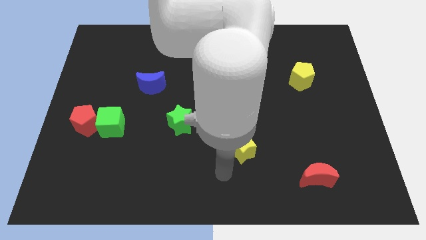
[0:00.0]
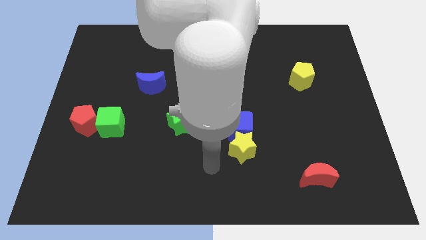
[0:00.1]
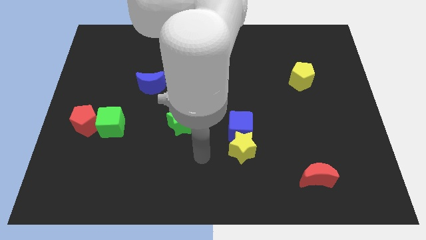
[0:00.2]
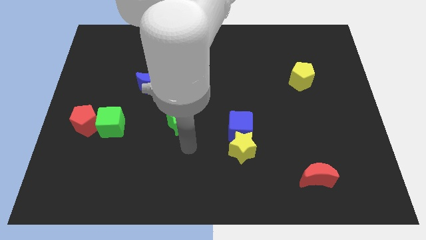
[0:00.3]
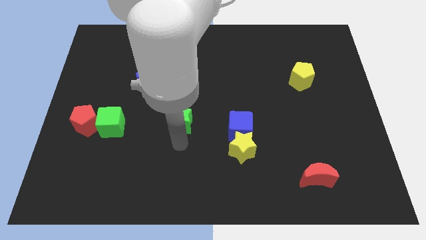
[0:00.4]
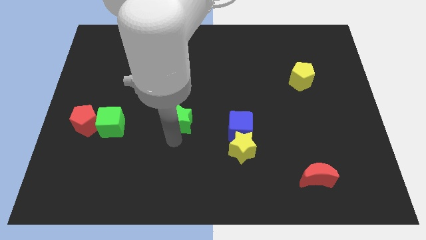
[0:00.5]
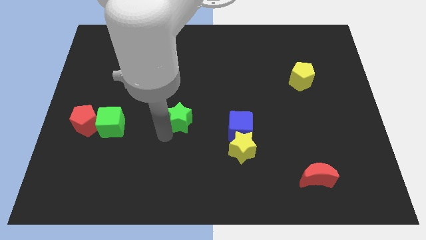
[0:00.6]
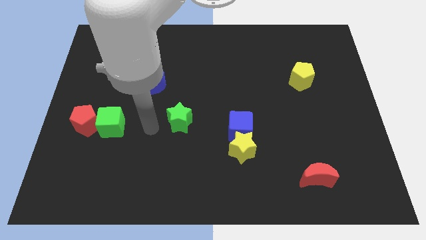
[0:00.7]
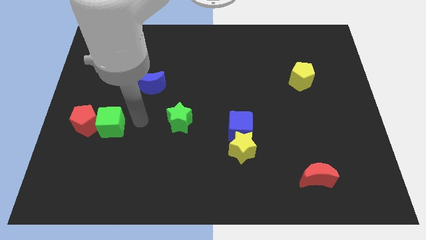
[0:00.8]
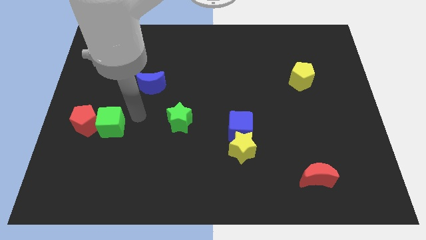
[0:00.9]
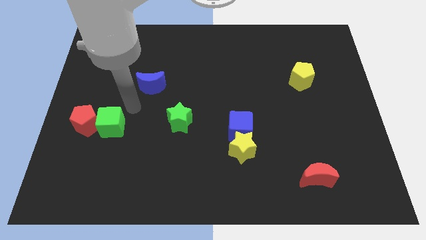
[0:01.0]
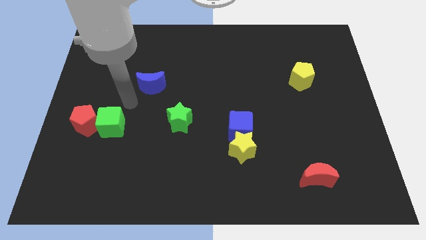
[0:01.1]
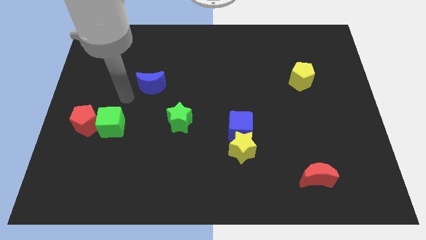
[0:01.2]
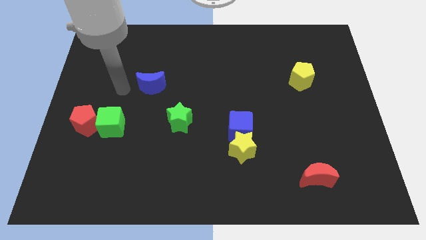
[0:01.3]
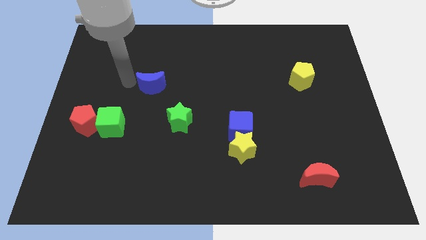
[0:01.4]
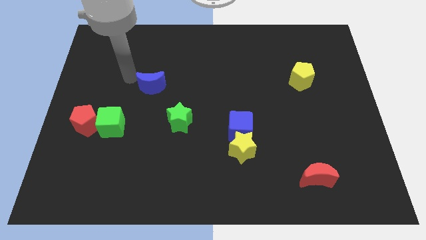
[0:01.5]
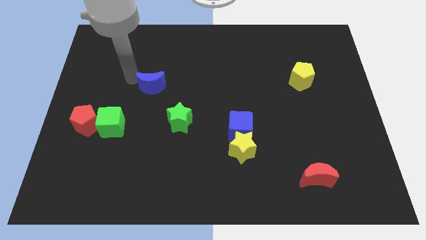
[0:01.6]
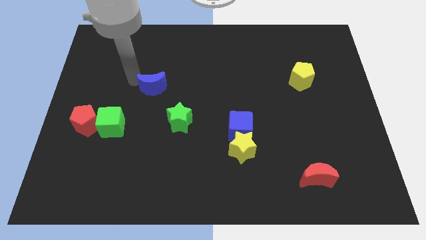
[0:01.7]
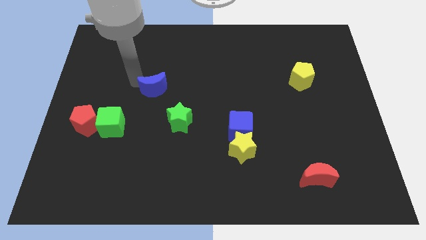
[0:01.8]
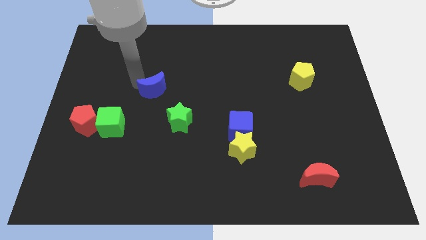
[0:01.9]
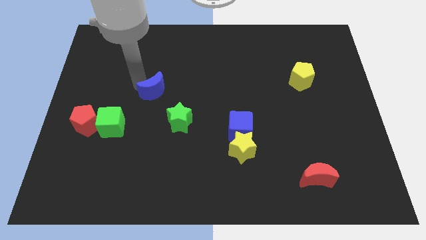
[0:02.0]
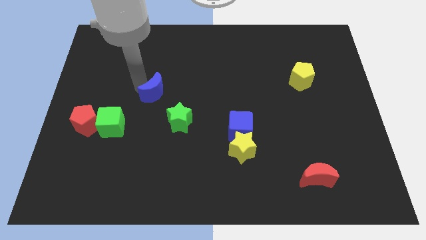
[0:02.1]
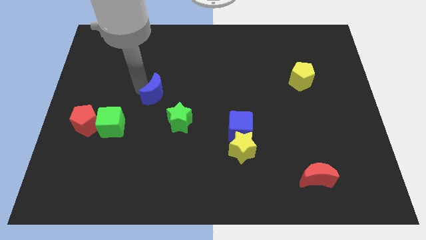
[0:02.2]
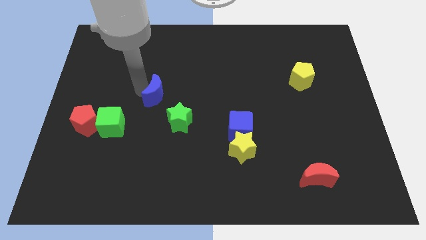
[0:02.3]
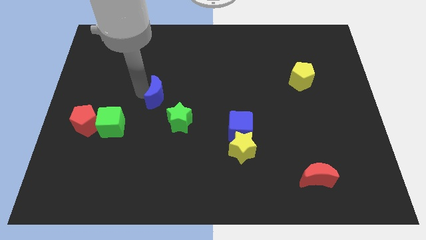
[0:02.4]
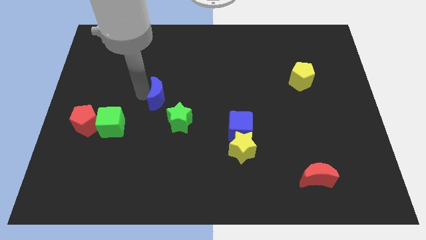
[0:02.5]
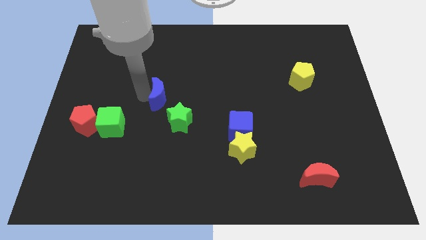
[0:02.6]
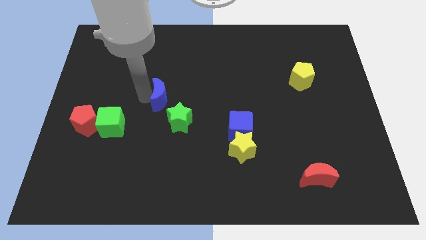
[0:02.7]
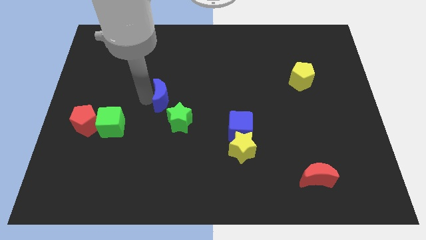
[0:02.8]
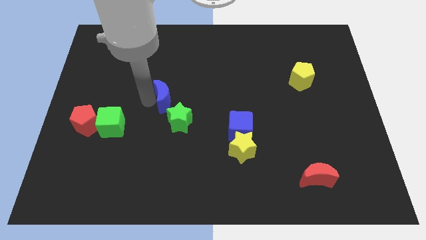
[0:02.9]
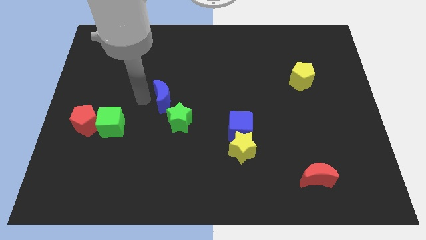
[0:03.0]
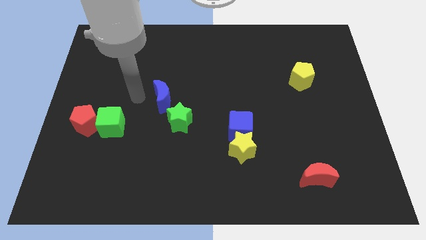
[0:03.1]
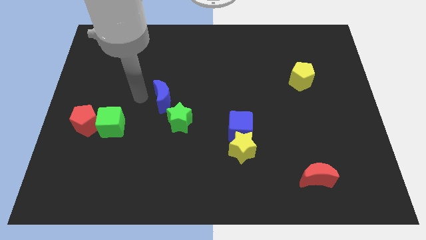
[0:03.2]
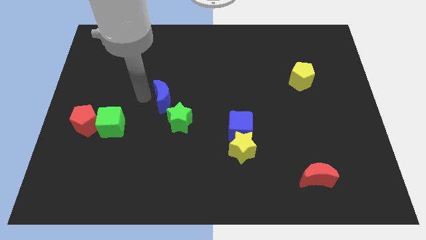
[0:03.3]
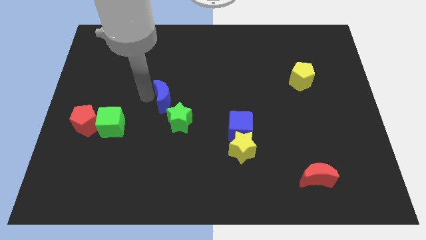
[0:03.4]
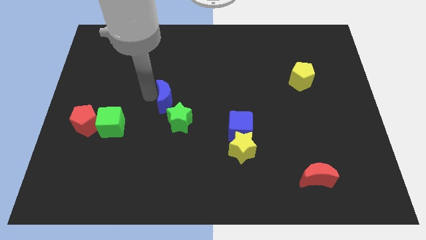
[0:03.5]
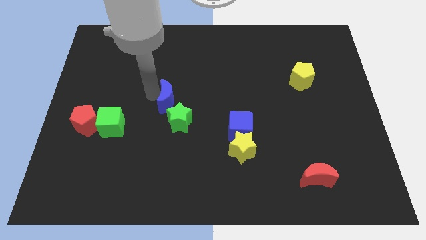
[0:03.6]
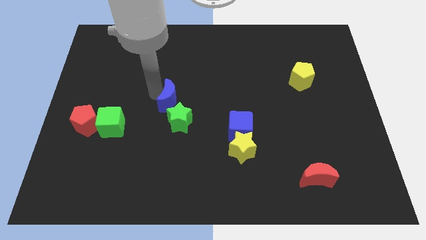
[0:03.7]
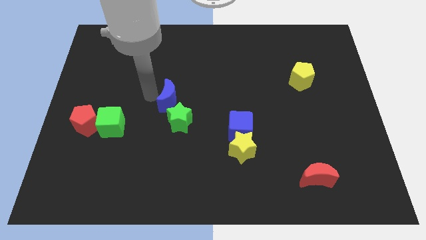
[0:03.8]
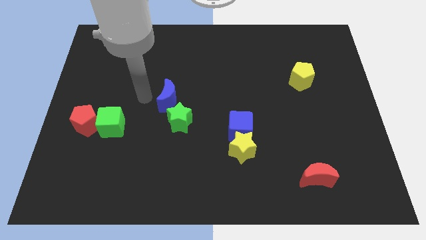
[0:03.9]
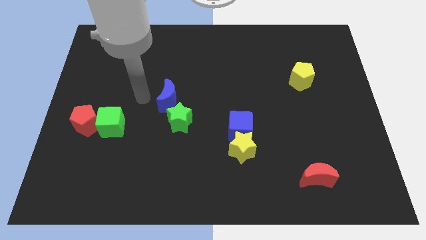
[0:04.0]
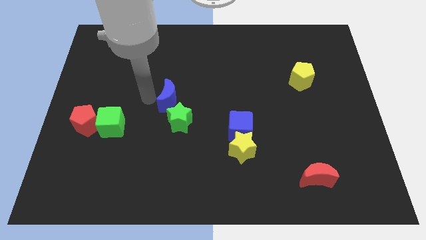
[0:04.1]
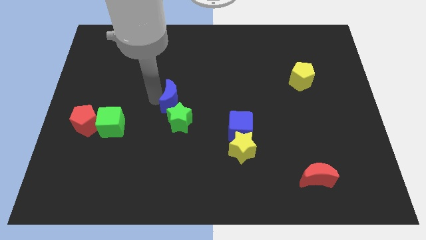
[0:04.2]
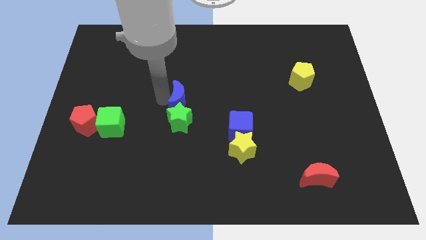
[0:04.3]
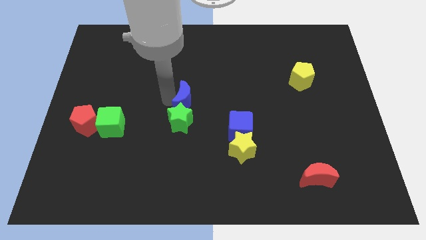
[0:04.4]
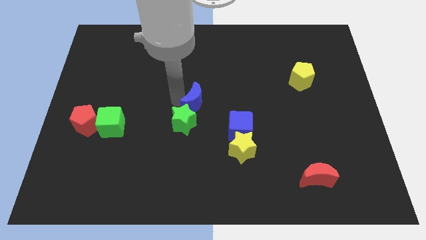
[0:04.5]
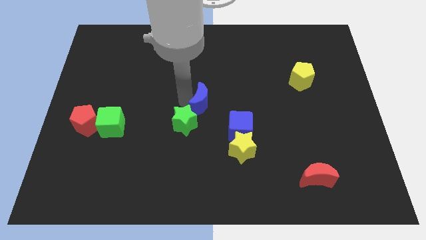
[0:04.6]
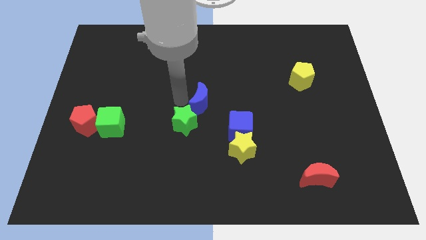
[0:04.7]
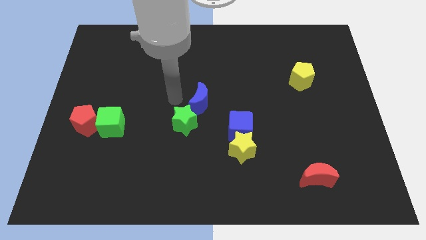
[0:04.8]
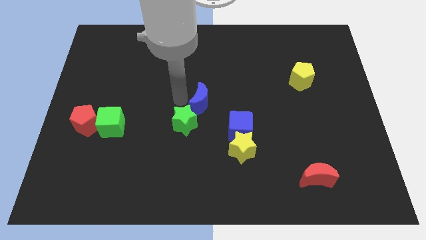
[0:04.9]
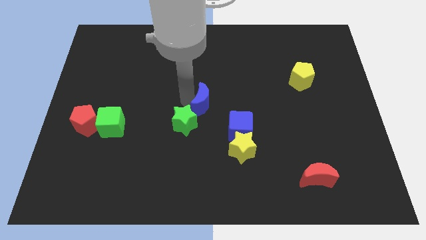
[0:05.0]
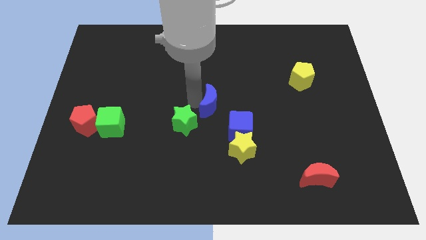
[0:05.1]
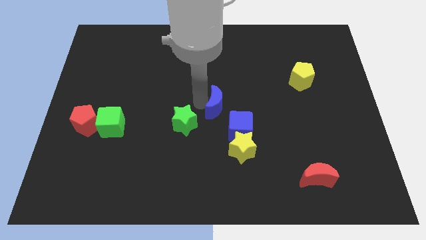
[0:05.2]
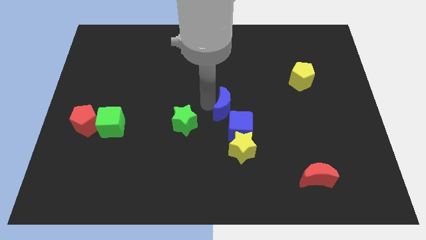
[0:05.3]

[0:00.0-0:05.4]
push the blue moon to the top side of the yellow star

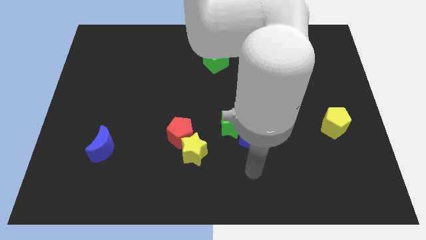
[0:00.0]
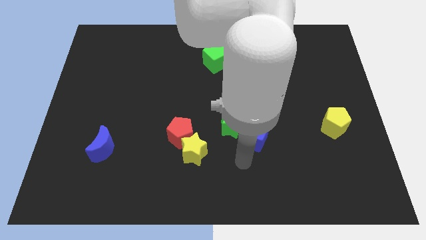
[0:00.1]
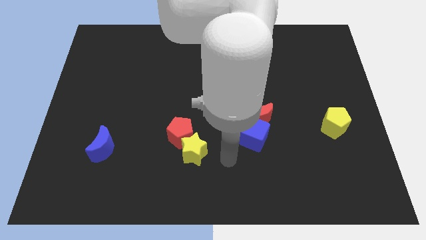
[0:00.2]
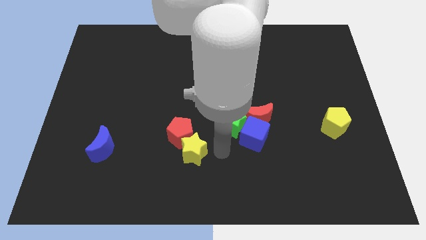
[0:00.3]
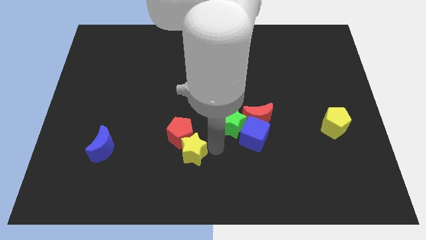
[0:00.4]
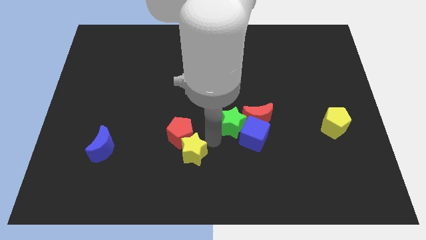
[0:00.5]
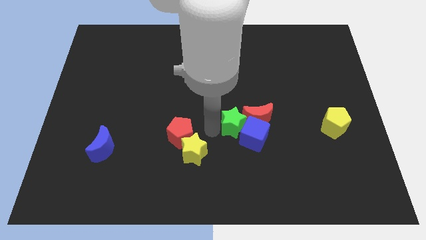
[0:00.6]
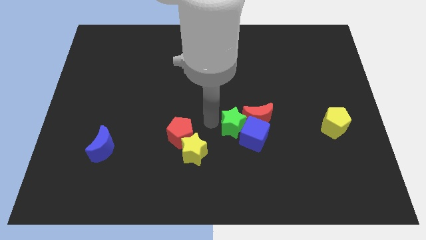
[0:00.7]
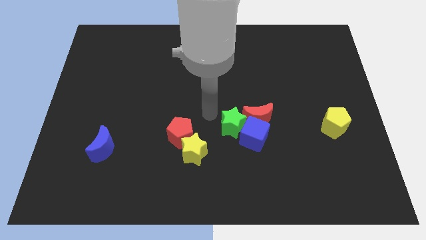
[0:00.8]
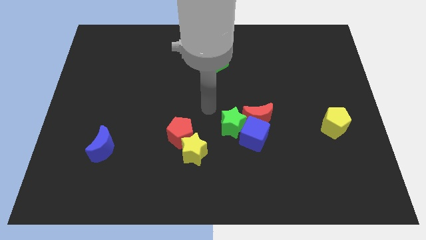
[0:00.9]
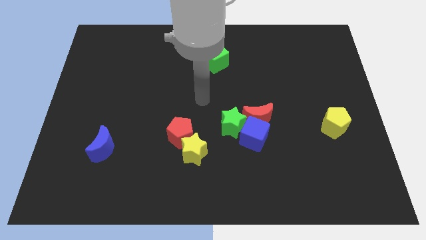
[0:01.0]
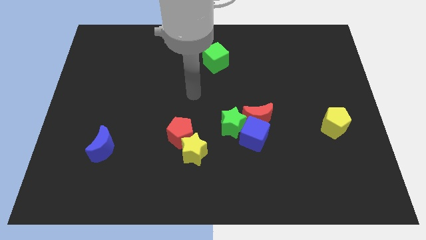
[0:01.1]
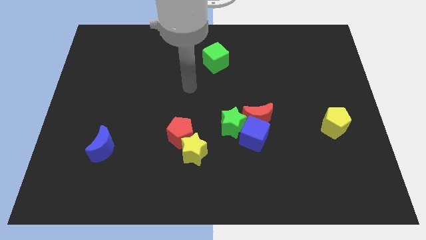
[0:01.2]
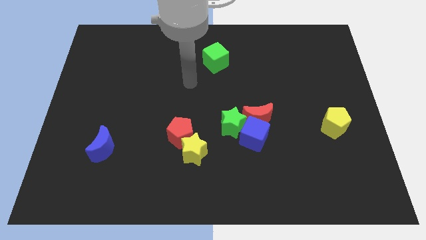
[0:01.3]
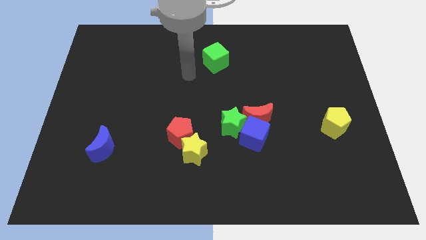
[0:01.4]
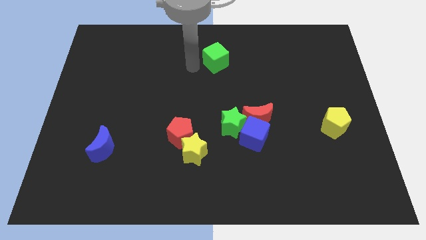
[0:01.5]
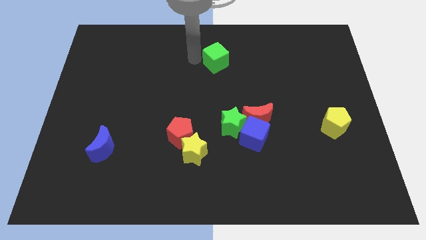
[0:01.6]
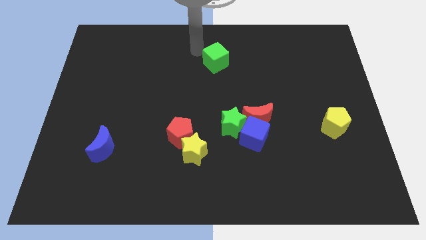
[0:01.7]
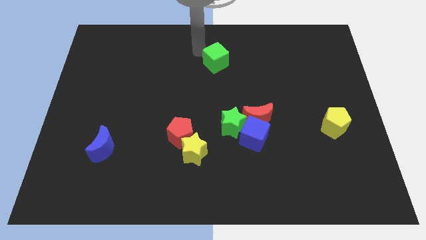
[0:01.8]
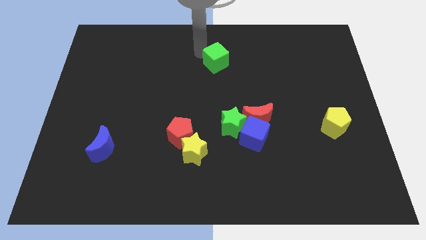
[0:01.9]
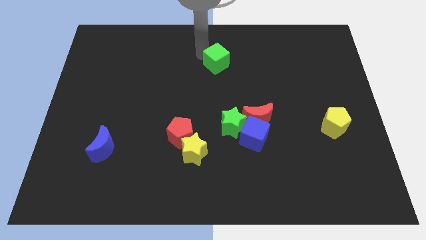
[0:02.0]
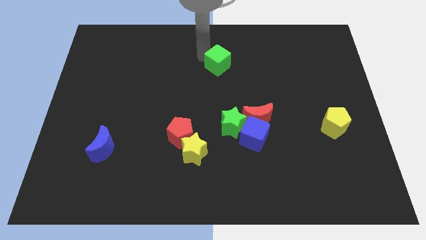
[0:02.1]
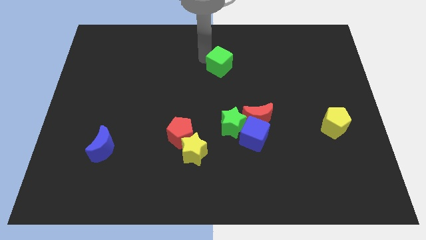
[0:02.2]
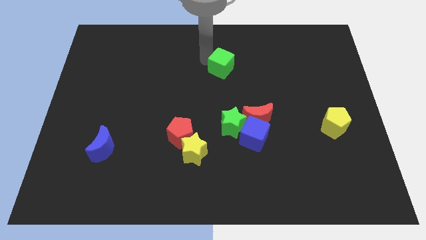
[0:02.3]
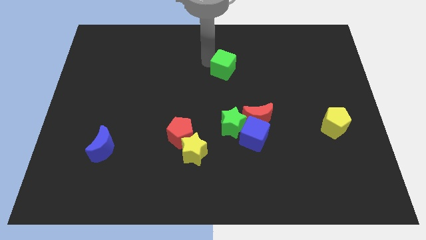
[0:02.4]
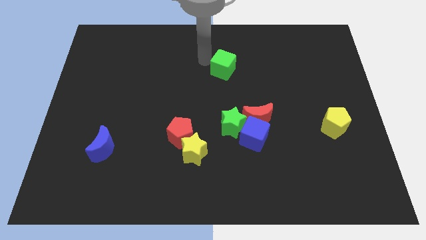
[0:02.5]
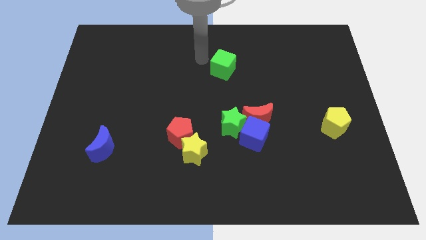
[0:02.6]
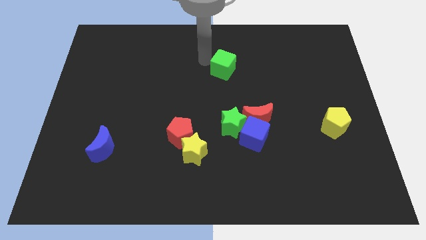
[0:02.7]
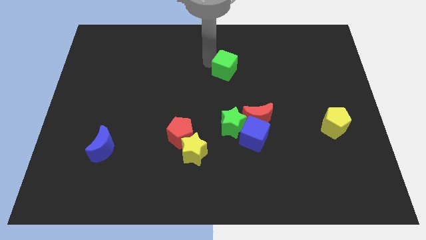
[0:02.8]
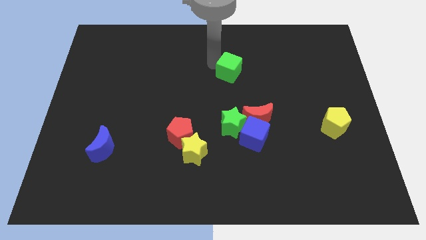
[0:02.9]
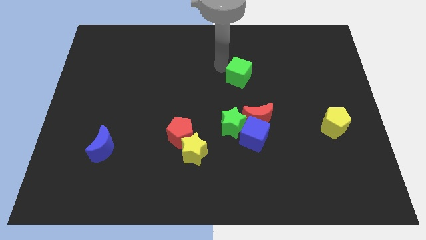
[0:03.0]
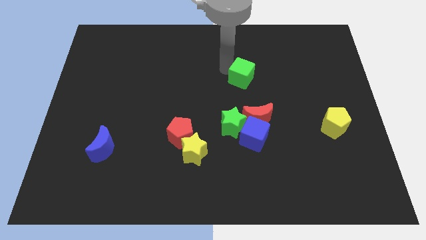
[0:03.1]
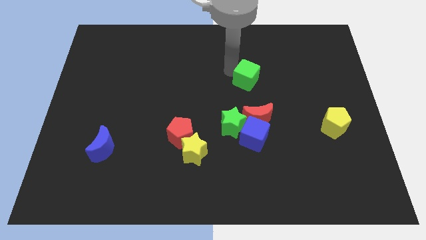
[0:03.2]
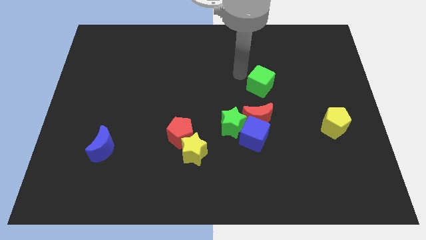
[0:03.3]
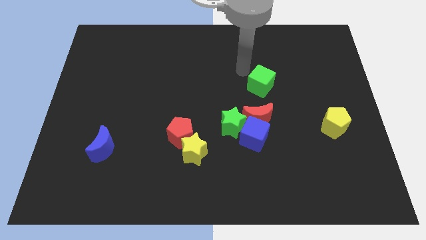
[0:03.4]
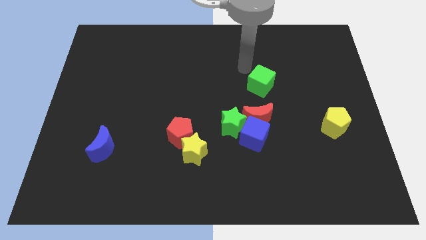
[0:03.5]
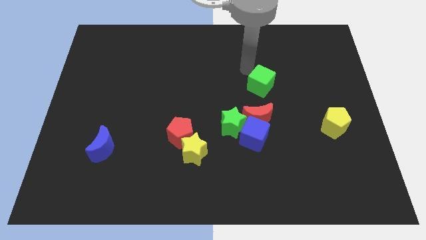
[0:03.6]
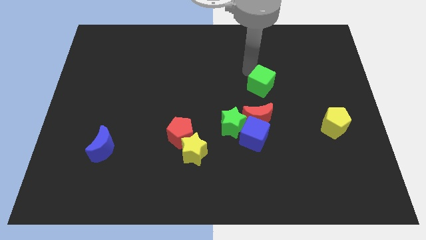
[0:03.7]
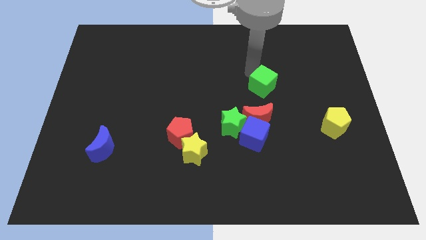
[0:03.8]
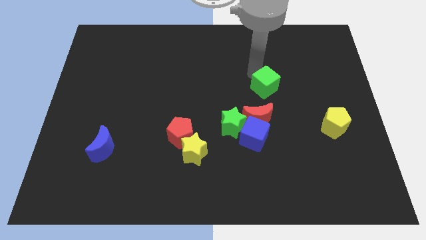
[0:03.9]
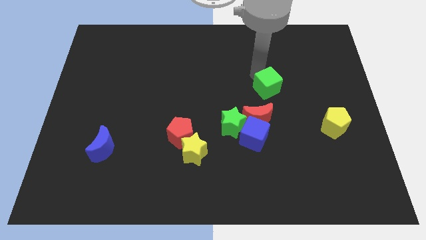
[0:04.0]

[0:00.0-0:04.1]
put the green cube to the top right of the red moon
